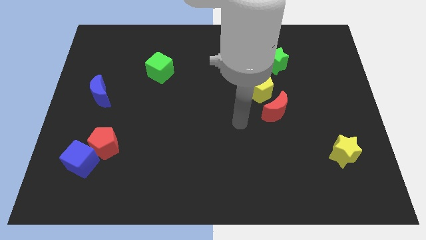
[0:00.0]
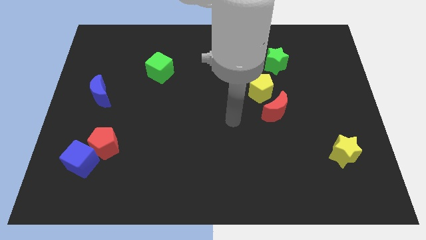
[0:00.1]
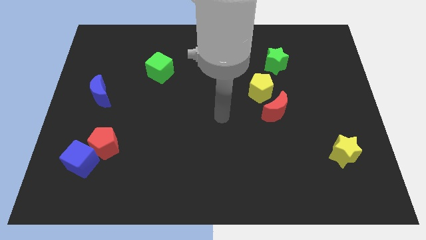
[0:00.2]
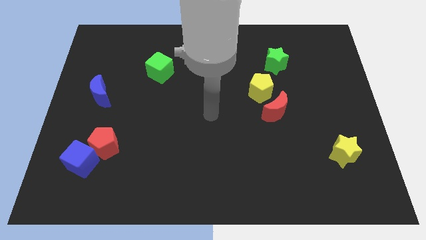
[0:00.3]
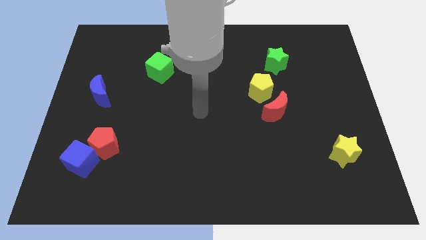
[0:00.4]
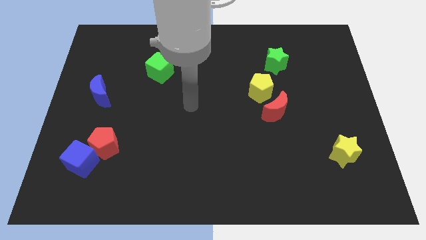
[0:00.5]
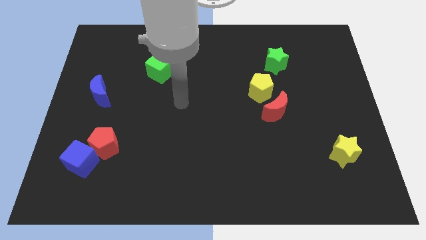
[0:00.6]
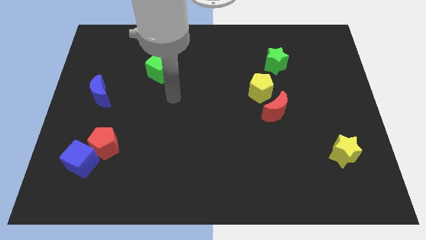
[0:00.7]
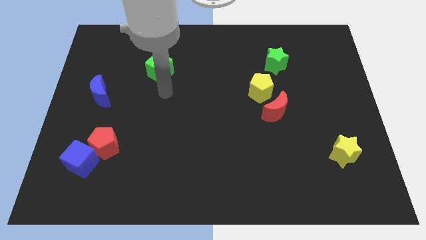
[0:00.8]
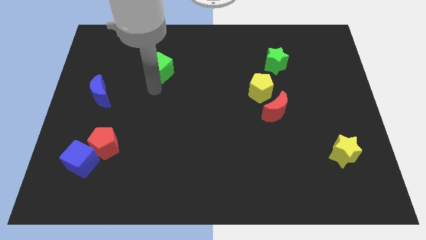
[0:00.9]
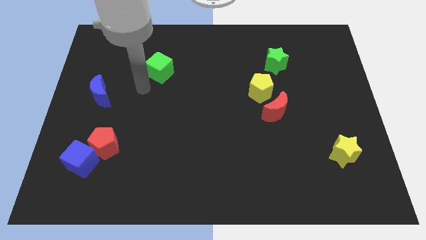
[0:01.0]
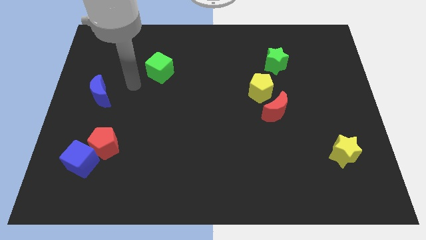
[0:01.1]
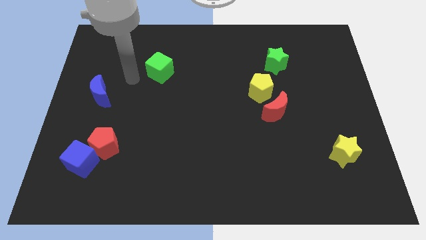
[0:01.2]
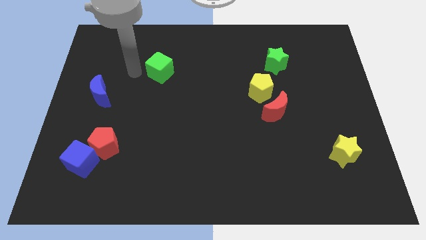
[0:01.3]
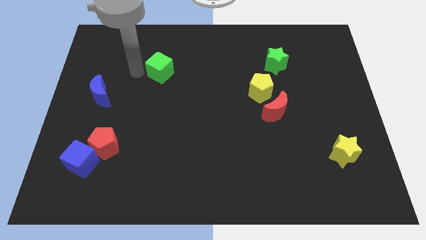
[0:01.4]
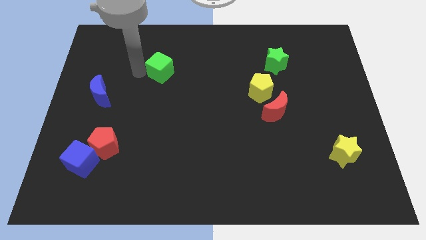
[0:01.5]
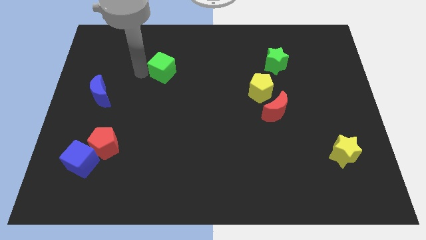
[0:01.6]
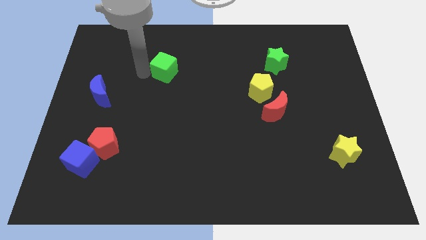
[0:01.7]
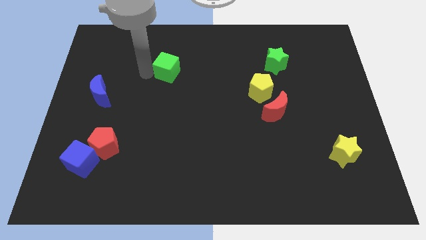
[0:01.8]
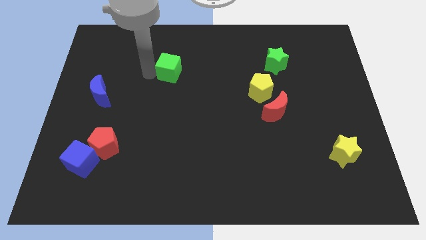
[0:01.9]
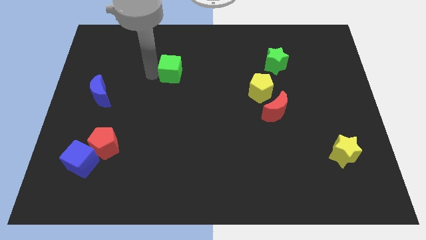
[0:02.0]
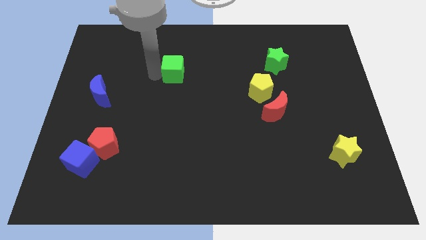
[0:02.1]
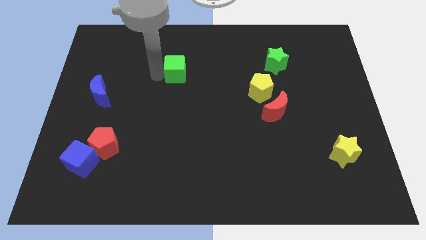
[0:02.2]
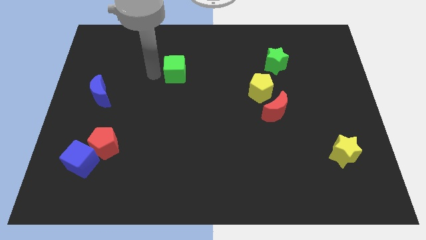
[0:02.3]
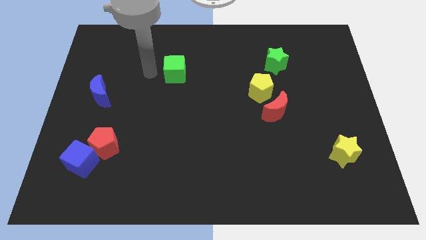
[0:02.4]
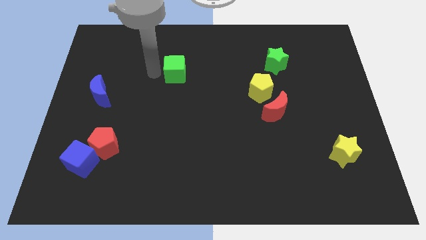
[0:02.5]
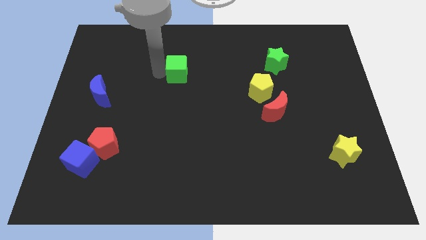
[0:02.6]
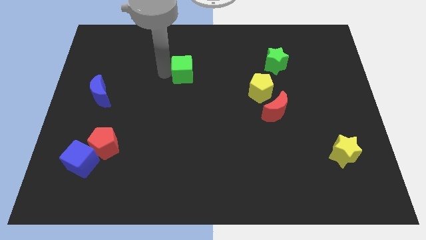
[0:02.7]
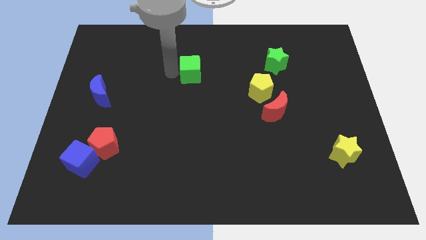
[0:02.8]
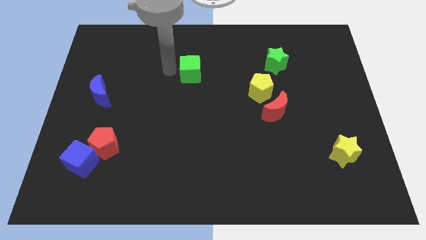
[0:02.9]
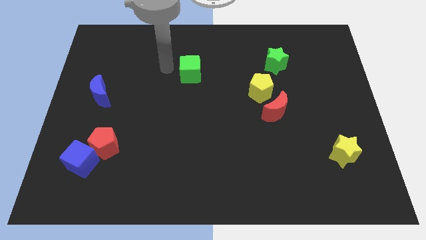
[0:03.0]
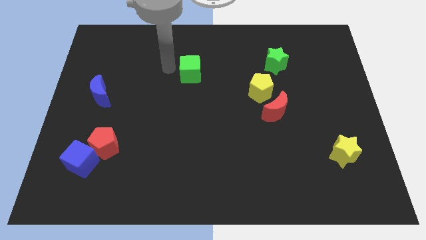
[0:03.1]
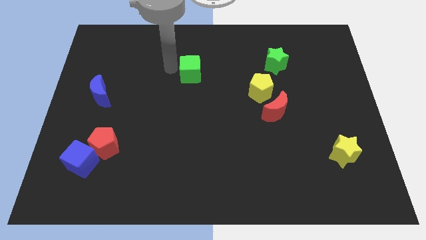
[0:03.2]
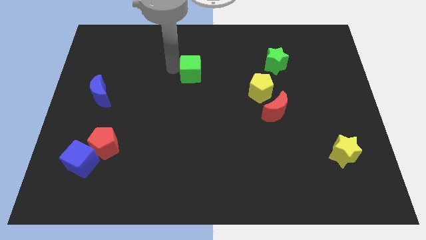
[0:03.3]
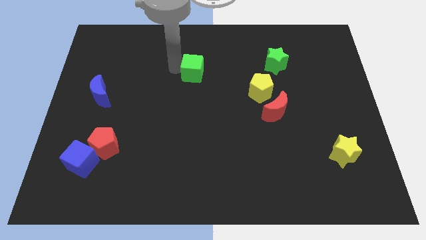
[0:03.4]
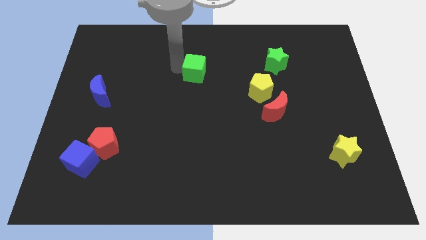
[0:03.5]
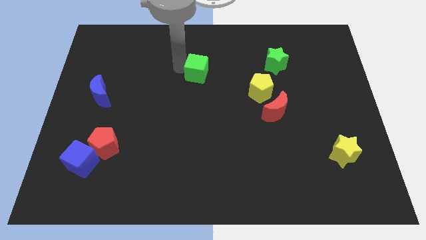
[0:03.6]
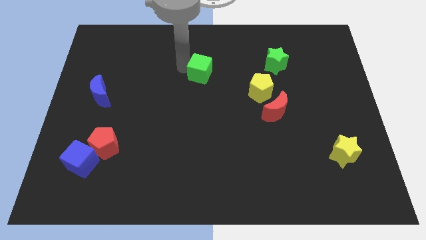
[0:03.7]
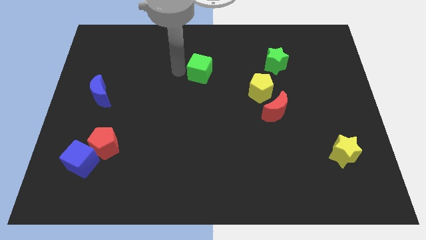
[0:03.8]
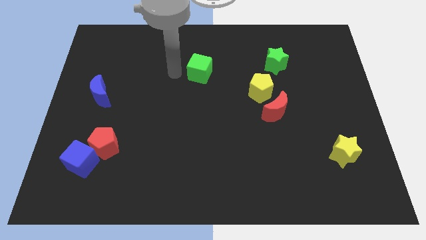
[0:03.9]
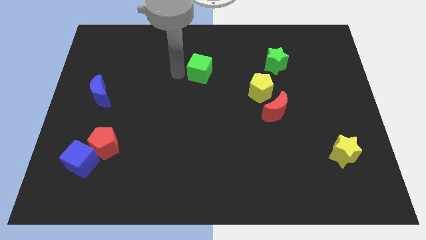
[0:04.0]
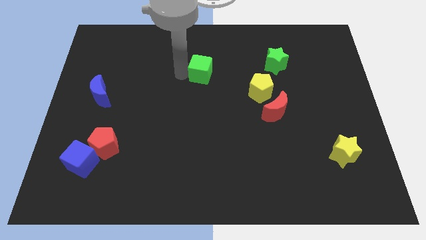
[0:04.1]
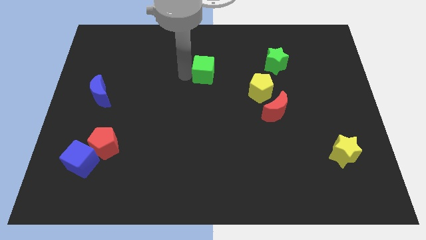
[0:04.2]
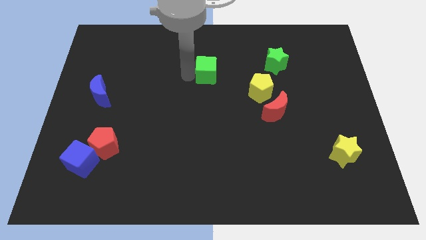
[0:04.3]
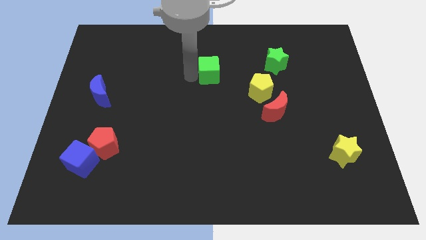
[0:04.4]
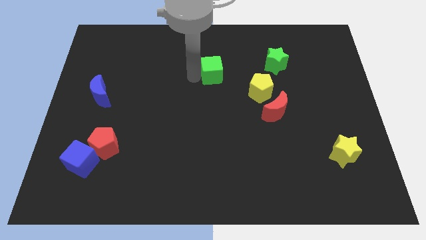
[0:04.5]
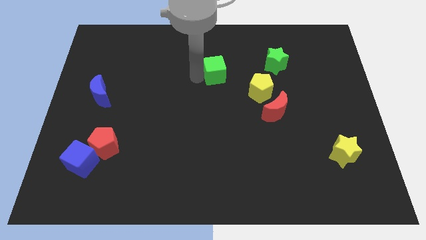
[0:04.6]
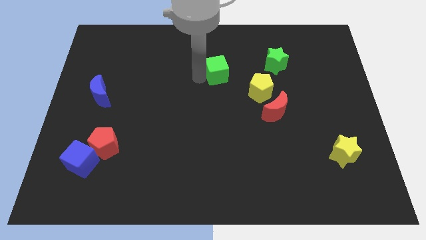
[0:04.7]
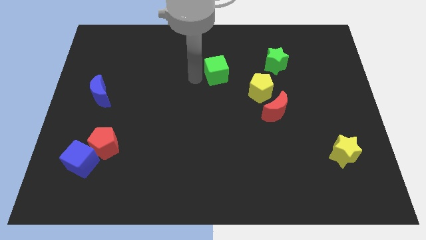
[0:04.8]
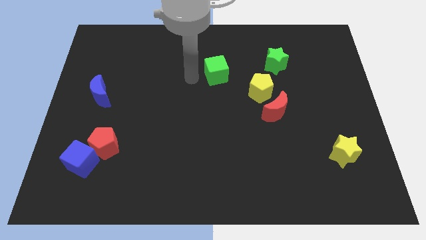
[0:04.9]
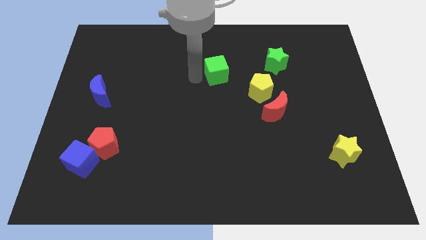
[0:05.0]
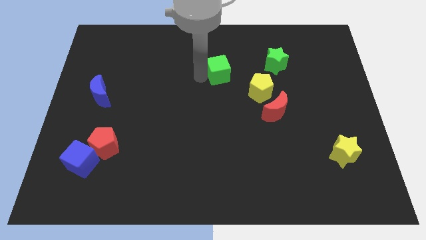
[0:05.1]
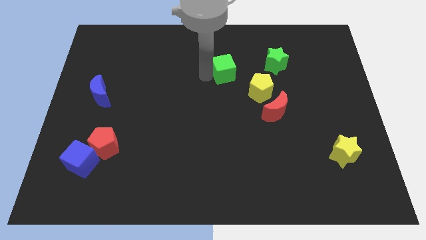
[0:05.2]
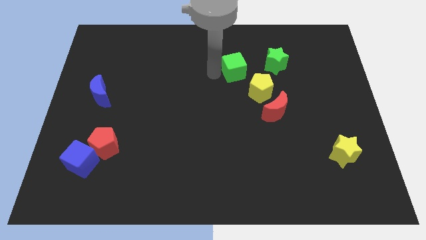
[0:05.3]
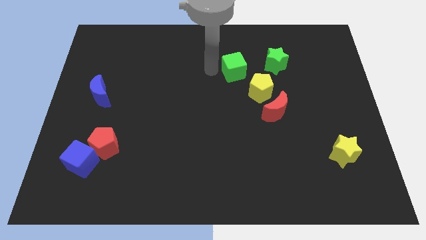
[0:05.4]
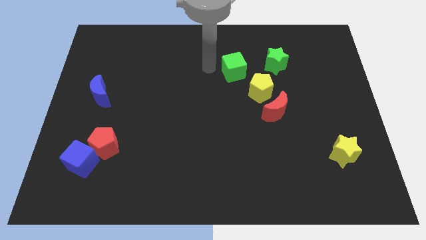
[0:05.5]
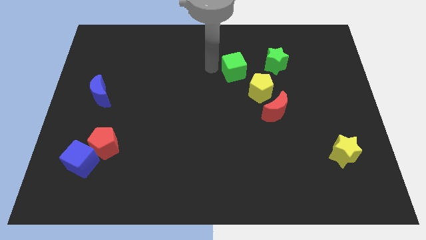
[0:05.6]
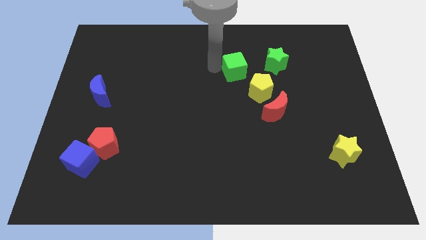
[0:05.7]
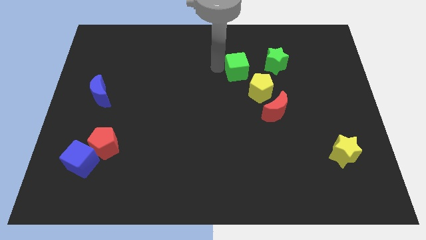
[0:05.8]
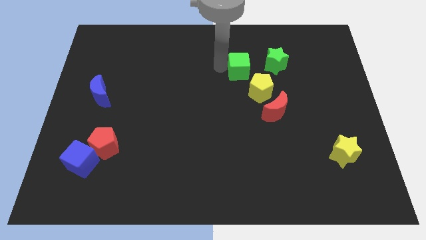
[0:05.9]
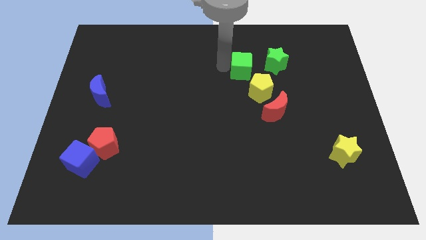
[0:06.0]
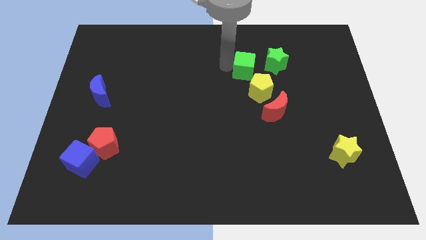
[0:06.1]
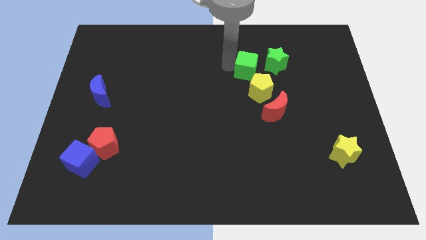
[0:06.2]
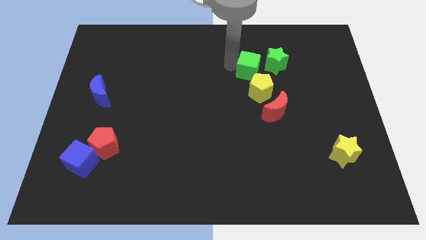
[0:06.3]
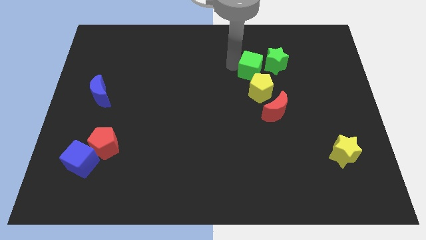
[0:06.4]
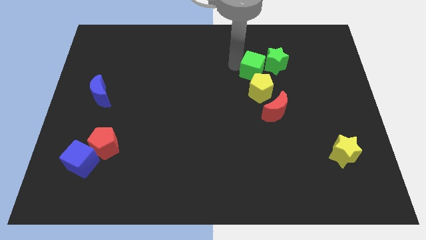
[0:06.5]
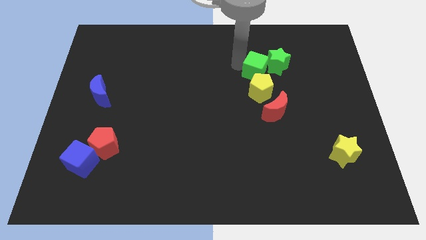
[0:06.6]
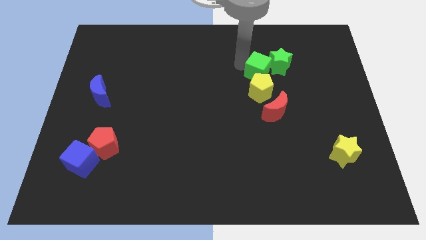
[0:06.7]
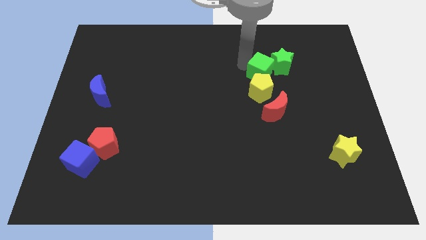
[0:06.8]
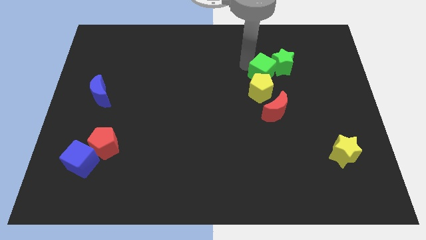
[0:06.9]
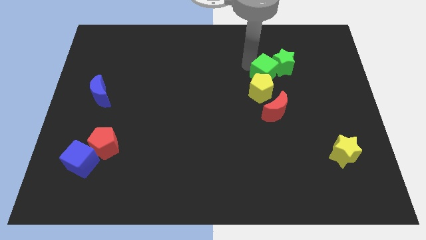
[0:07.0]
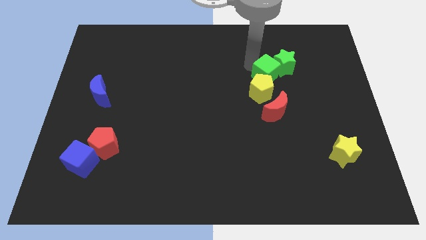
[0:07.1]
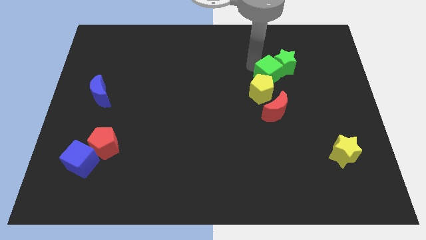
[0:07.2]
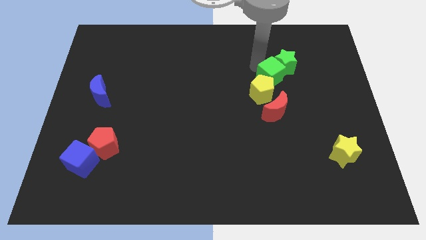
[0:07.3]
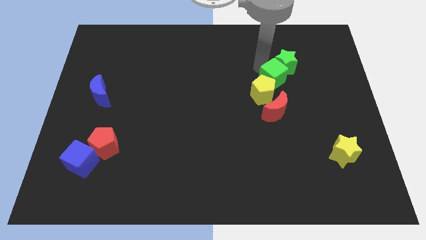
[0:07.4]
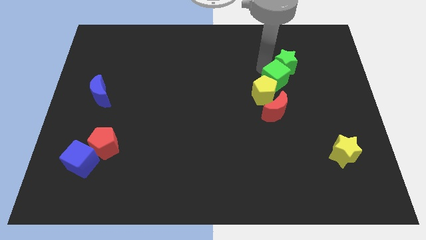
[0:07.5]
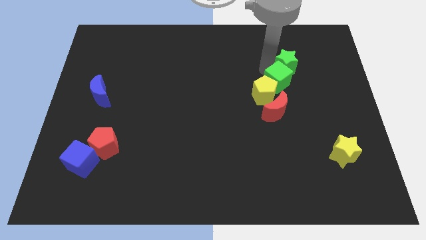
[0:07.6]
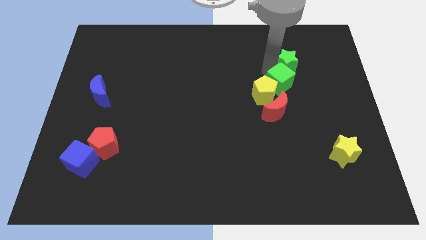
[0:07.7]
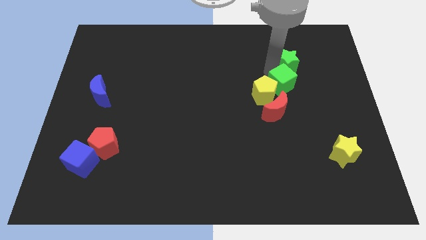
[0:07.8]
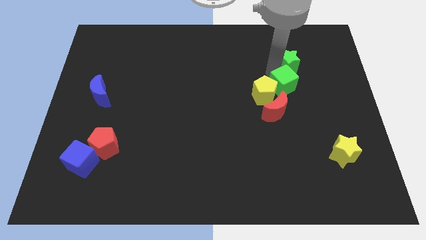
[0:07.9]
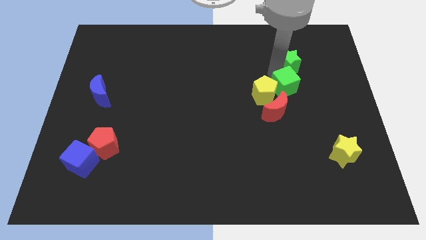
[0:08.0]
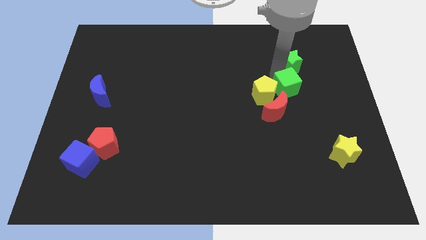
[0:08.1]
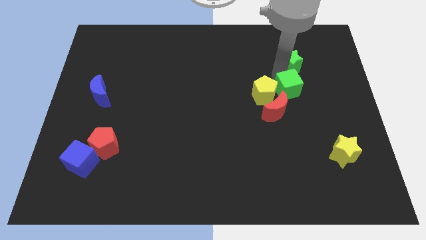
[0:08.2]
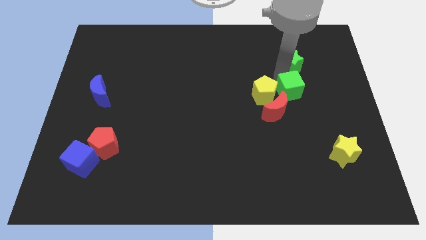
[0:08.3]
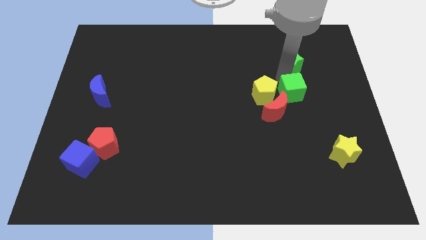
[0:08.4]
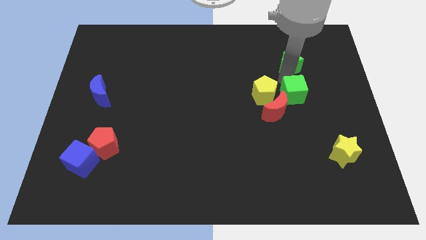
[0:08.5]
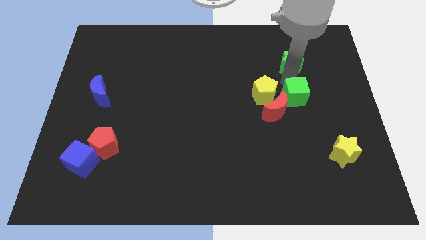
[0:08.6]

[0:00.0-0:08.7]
put the green cube to the bottom right side of the yellow pentagon
